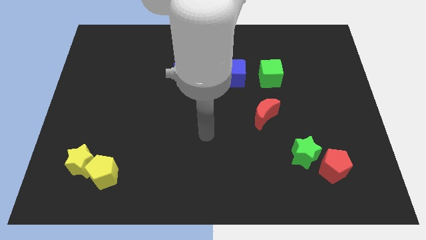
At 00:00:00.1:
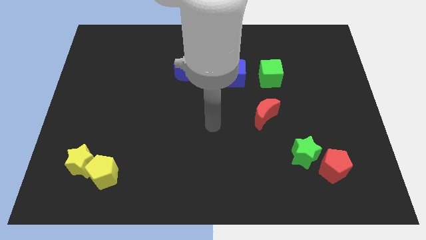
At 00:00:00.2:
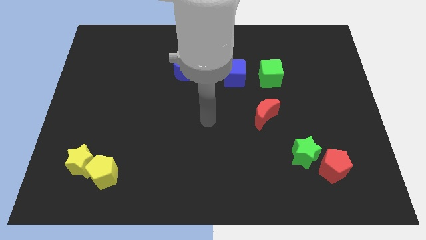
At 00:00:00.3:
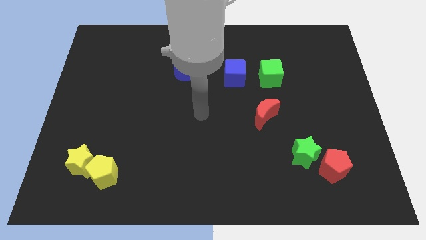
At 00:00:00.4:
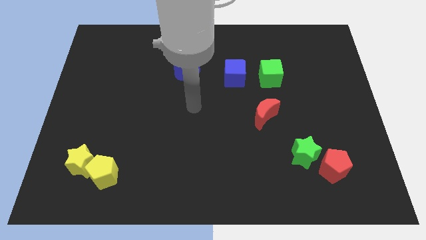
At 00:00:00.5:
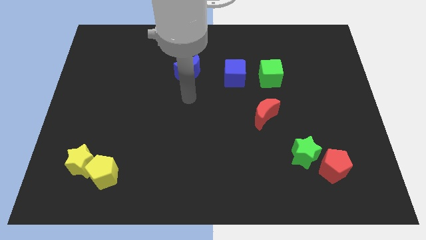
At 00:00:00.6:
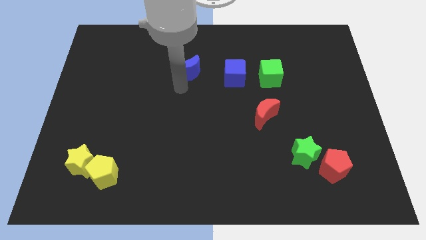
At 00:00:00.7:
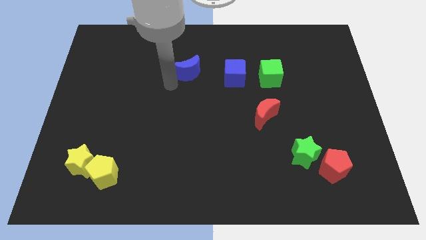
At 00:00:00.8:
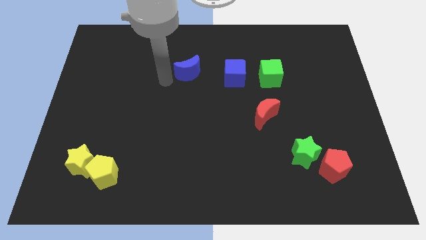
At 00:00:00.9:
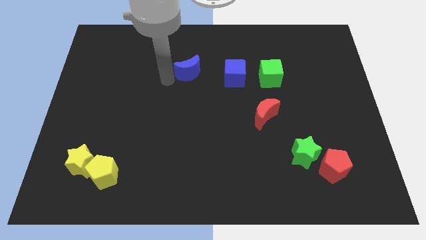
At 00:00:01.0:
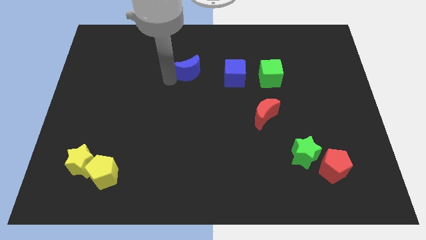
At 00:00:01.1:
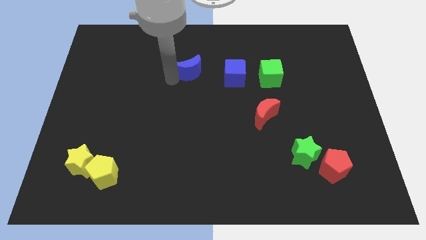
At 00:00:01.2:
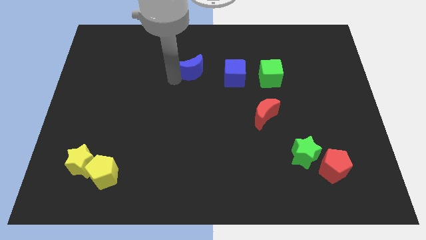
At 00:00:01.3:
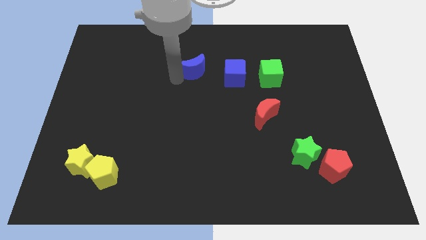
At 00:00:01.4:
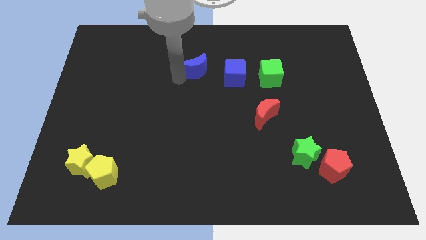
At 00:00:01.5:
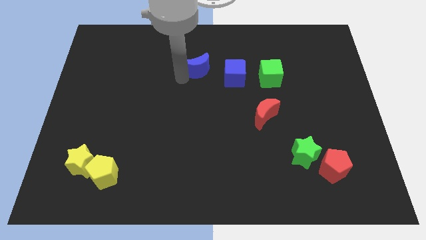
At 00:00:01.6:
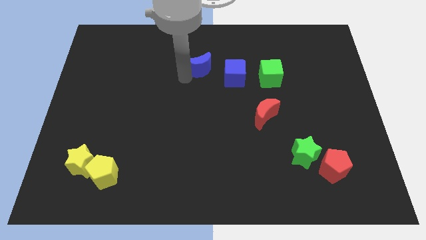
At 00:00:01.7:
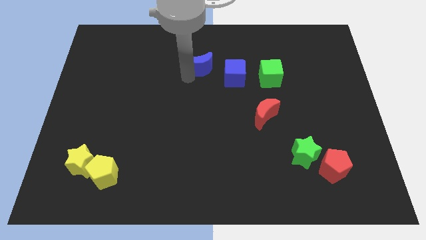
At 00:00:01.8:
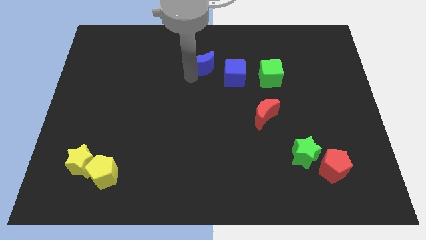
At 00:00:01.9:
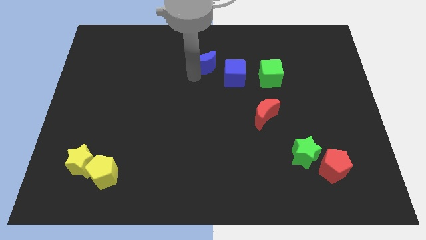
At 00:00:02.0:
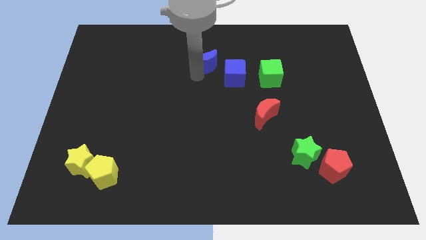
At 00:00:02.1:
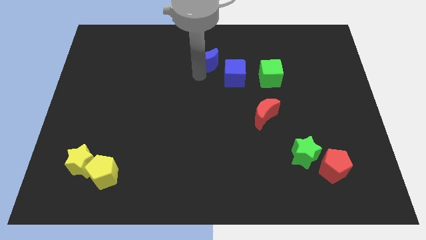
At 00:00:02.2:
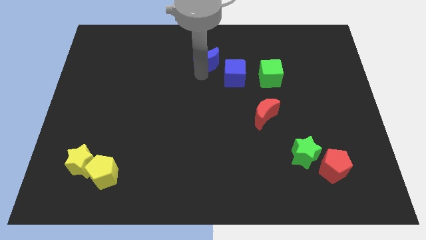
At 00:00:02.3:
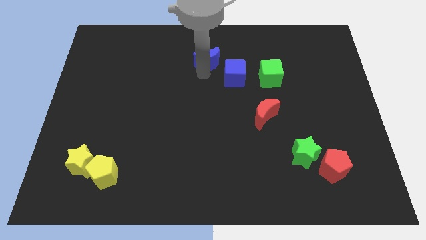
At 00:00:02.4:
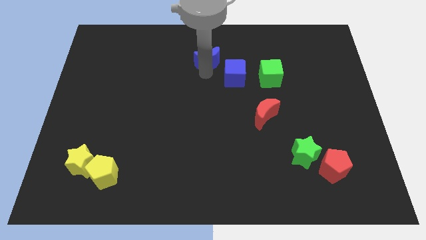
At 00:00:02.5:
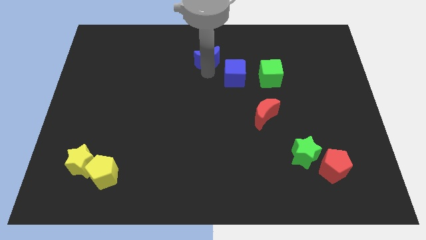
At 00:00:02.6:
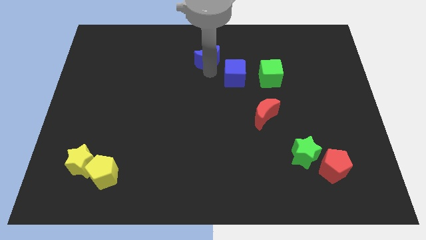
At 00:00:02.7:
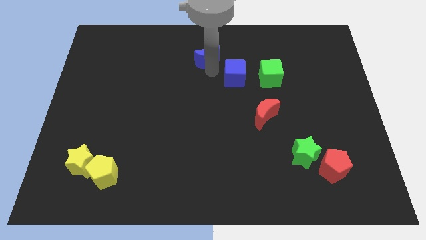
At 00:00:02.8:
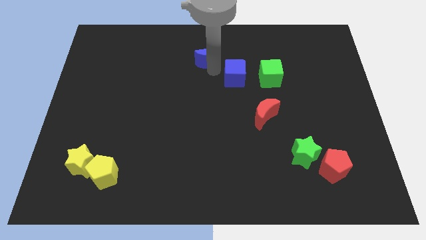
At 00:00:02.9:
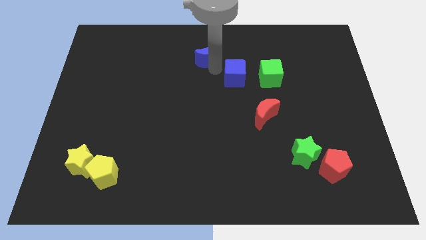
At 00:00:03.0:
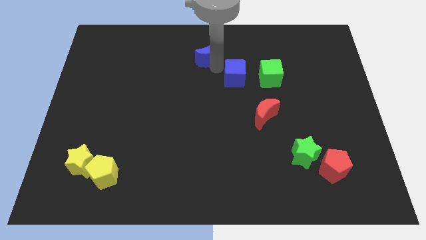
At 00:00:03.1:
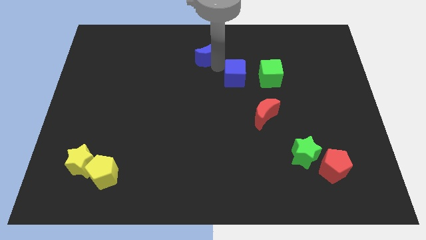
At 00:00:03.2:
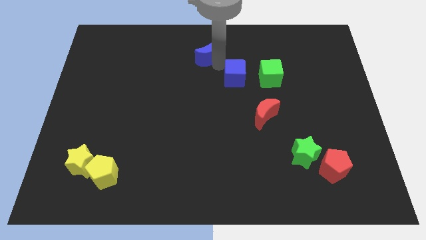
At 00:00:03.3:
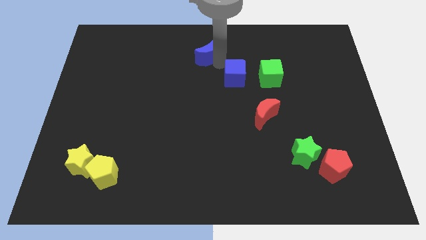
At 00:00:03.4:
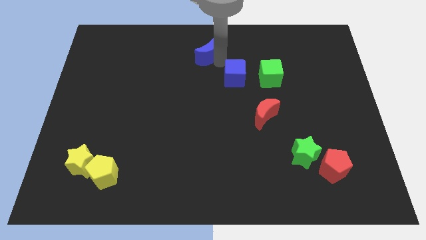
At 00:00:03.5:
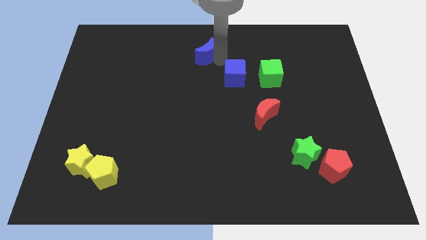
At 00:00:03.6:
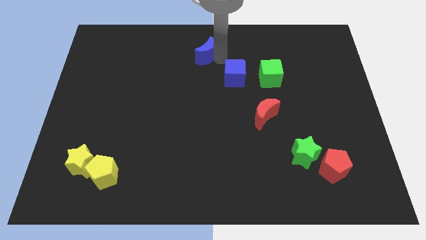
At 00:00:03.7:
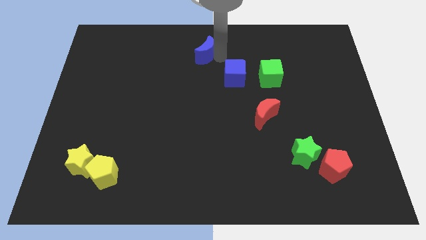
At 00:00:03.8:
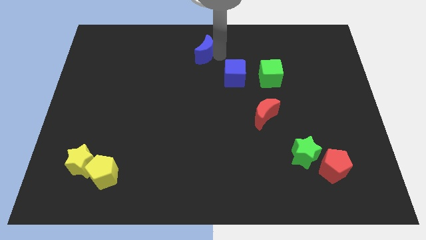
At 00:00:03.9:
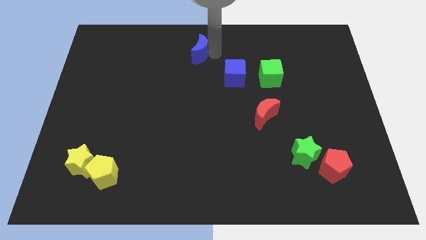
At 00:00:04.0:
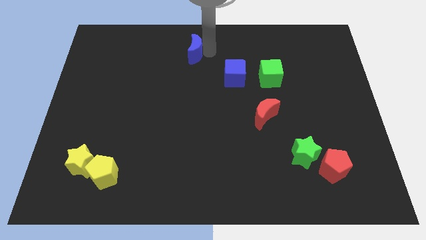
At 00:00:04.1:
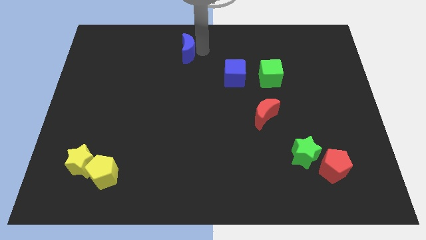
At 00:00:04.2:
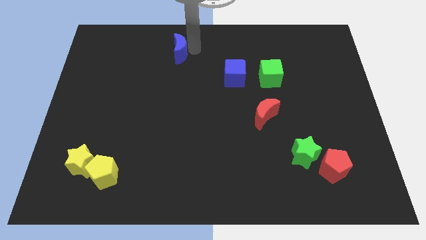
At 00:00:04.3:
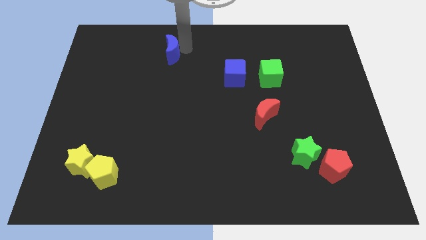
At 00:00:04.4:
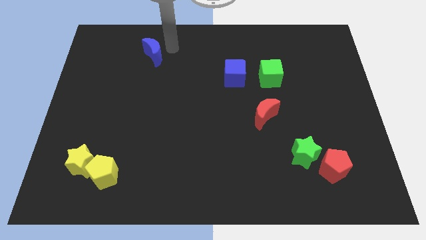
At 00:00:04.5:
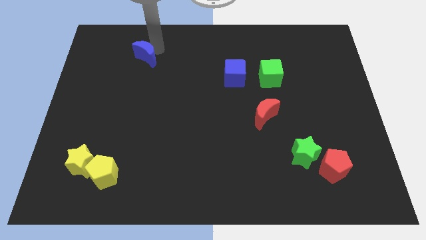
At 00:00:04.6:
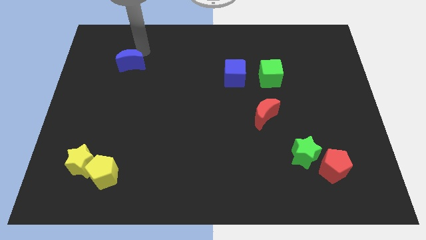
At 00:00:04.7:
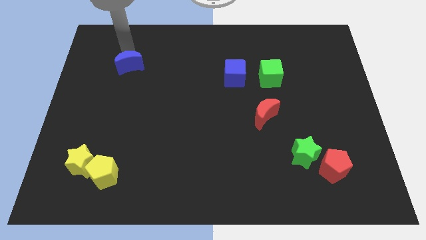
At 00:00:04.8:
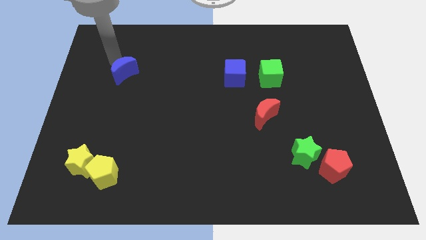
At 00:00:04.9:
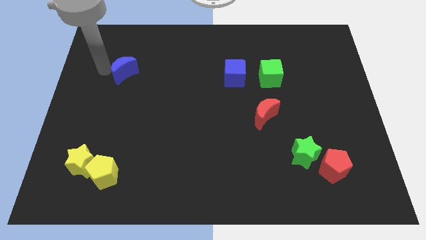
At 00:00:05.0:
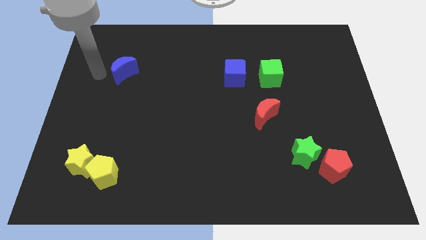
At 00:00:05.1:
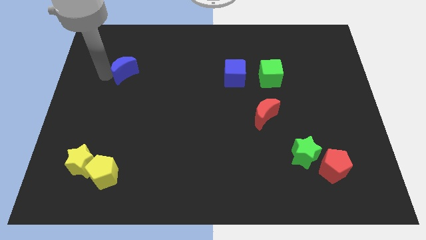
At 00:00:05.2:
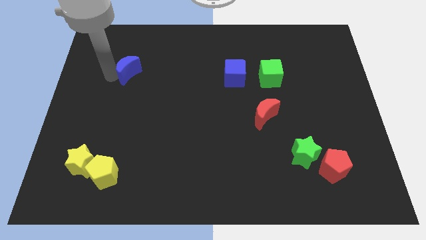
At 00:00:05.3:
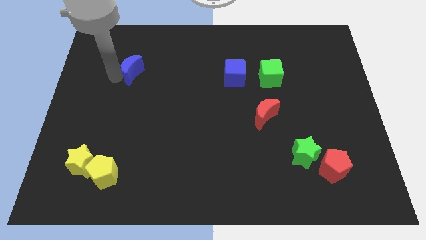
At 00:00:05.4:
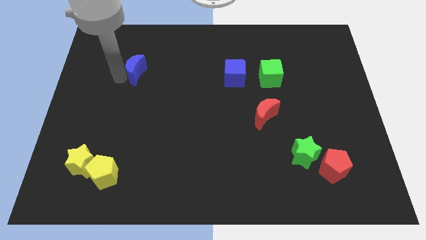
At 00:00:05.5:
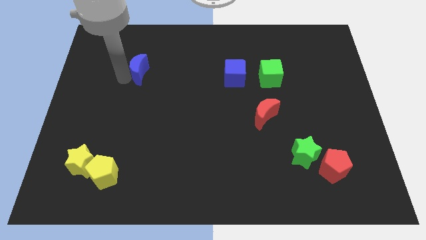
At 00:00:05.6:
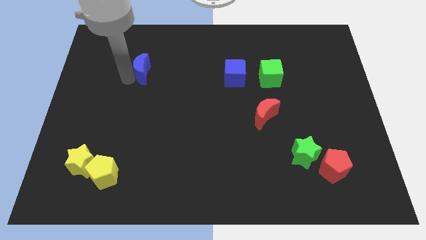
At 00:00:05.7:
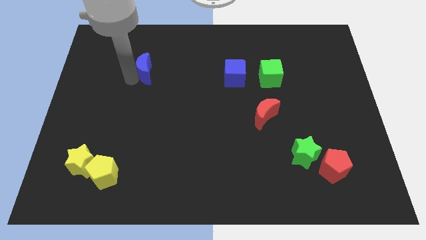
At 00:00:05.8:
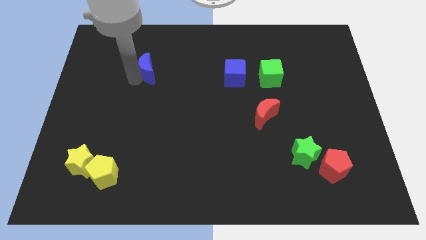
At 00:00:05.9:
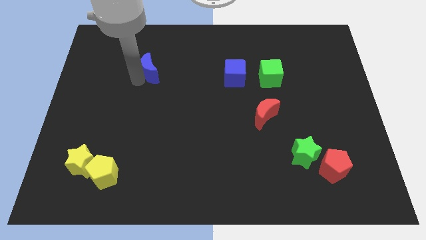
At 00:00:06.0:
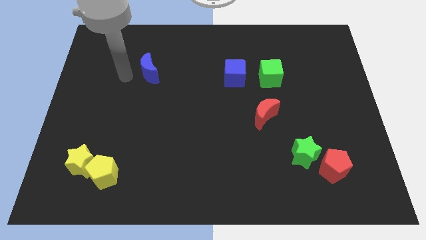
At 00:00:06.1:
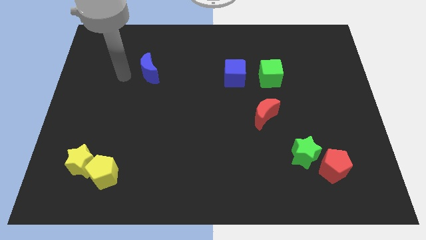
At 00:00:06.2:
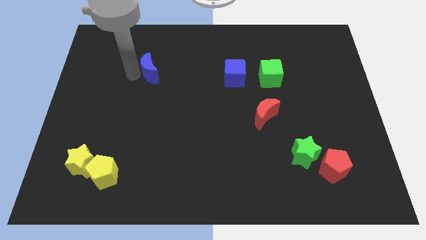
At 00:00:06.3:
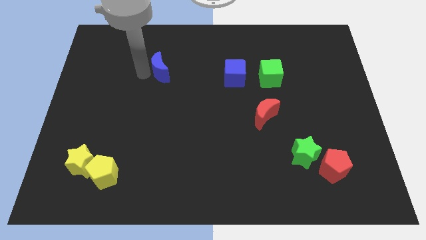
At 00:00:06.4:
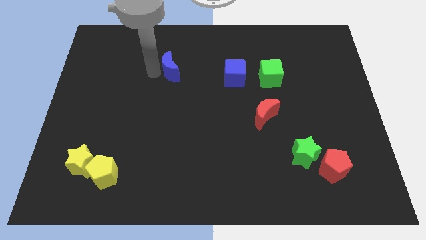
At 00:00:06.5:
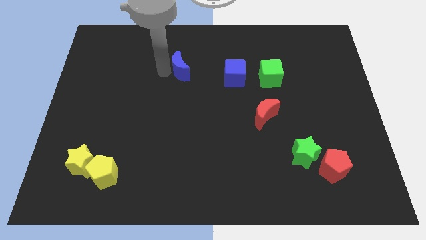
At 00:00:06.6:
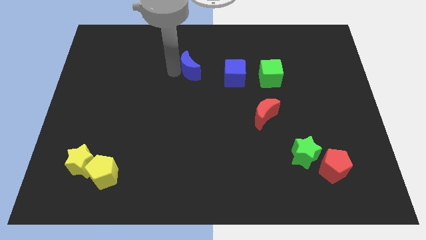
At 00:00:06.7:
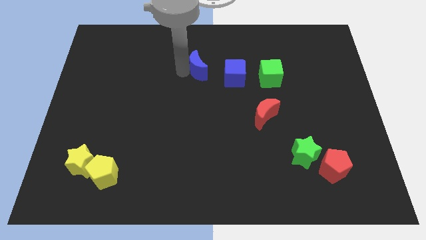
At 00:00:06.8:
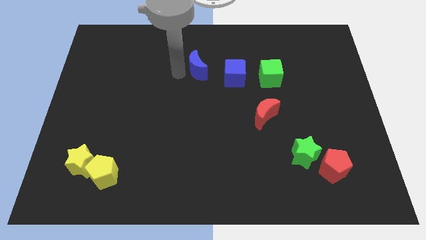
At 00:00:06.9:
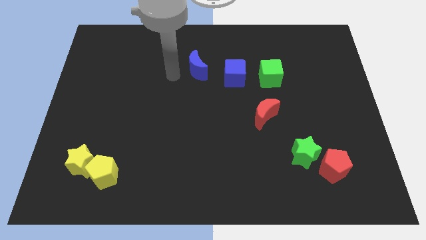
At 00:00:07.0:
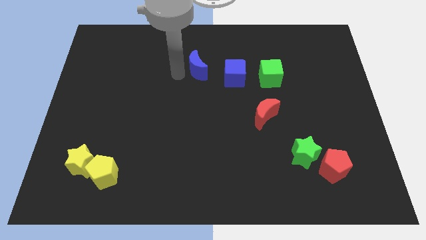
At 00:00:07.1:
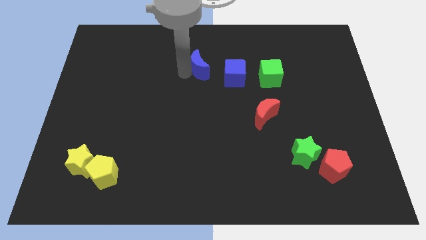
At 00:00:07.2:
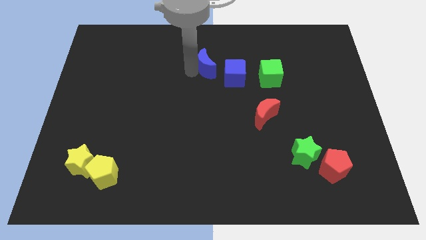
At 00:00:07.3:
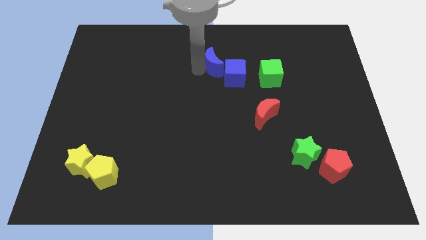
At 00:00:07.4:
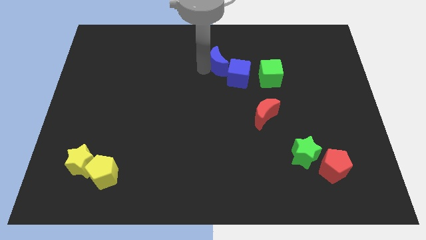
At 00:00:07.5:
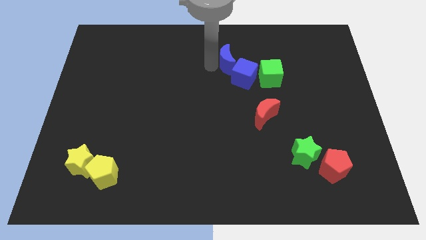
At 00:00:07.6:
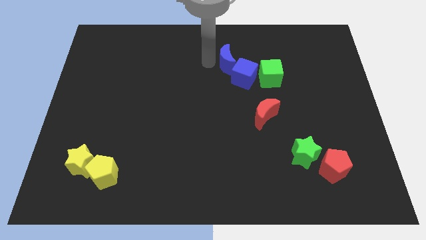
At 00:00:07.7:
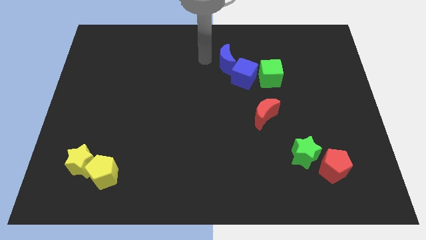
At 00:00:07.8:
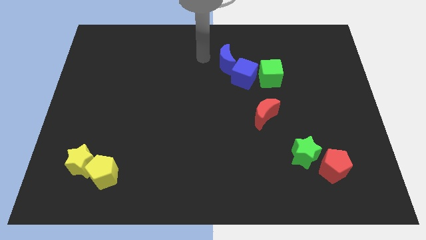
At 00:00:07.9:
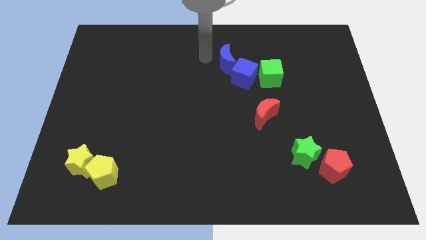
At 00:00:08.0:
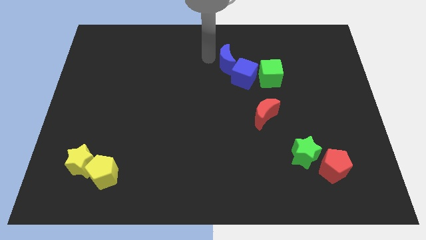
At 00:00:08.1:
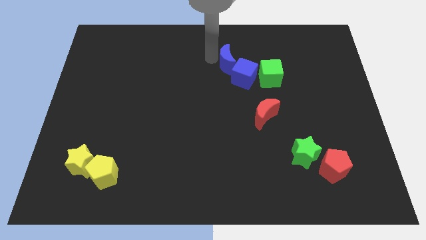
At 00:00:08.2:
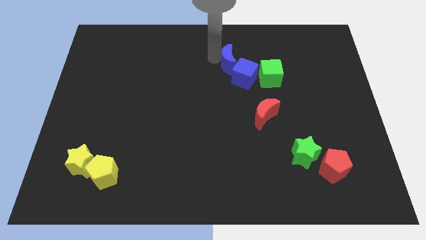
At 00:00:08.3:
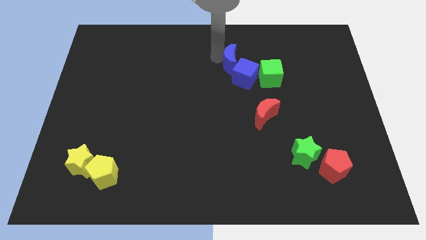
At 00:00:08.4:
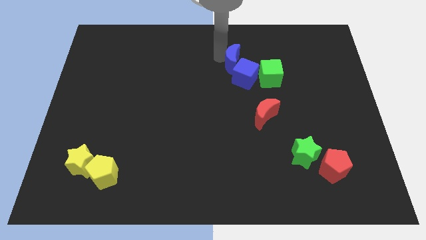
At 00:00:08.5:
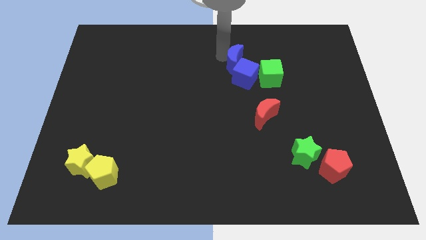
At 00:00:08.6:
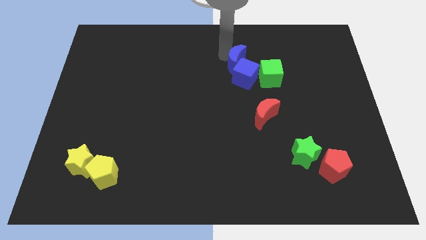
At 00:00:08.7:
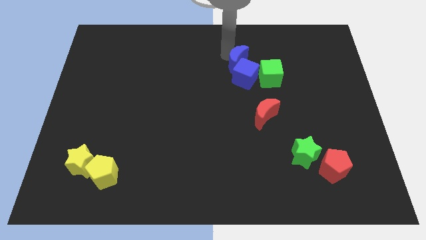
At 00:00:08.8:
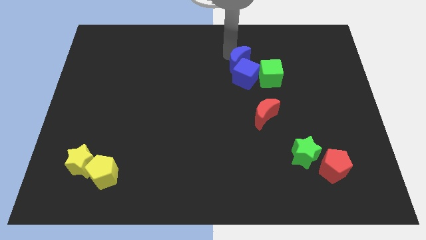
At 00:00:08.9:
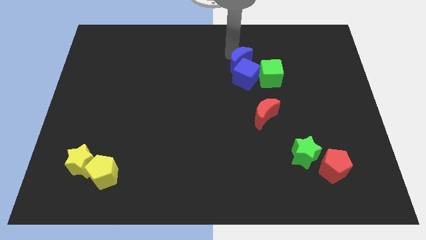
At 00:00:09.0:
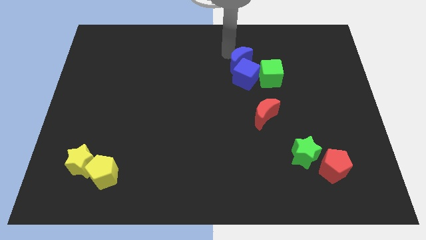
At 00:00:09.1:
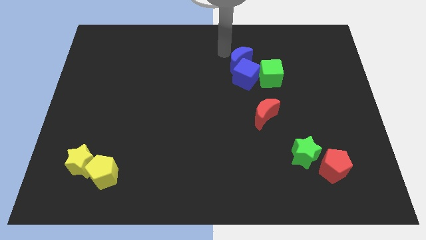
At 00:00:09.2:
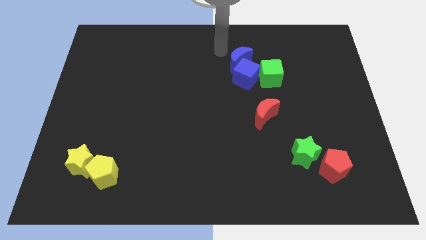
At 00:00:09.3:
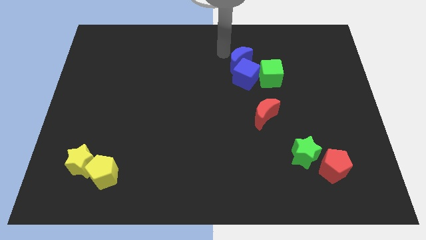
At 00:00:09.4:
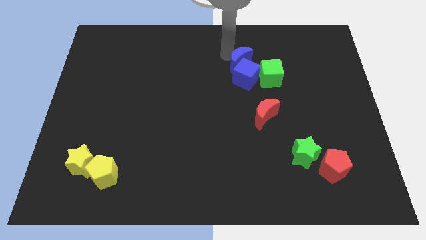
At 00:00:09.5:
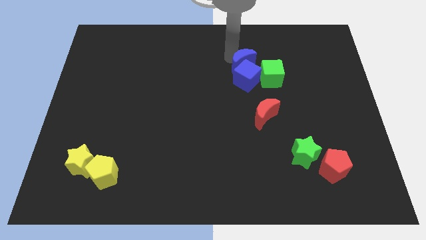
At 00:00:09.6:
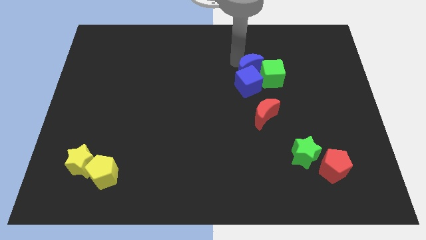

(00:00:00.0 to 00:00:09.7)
push the blue moon next to the green cube
